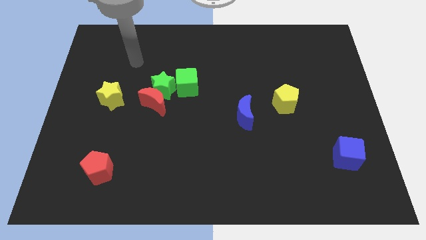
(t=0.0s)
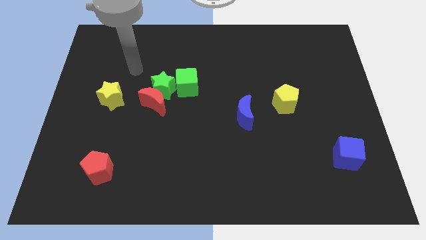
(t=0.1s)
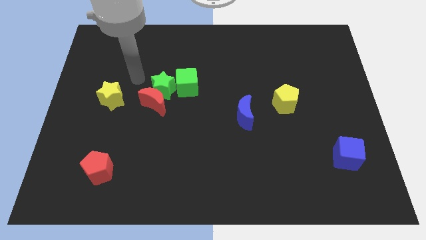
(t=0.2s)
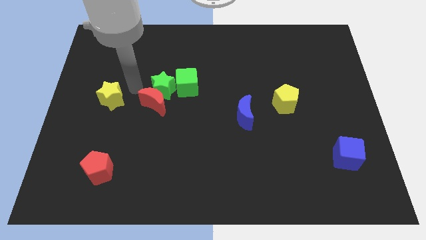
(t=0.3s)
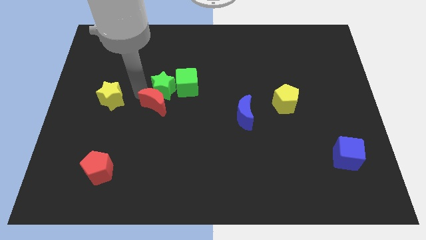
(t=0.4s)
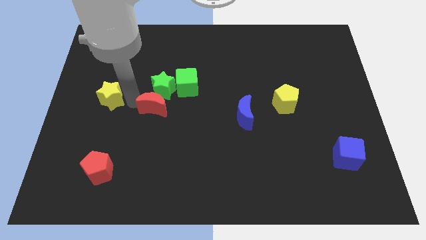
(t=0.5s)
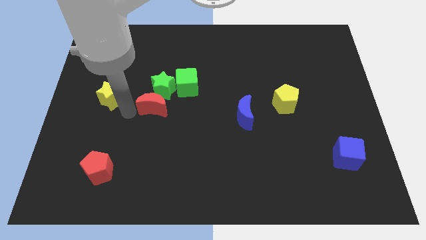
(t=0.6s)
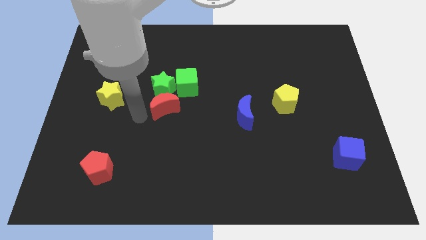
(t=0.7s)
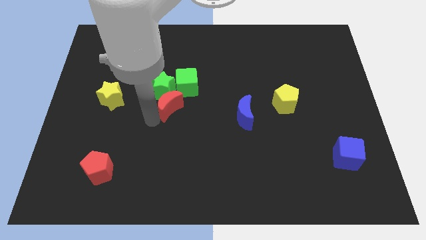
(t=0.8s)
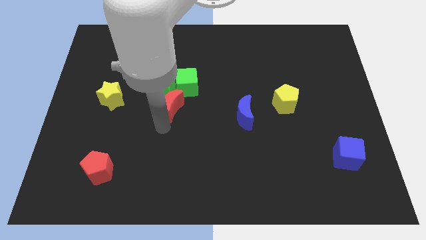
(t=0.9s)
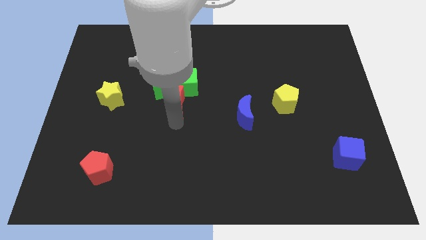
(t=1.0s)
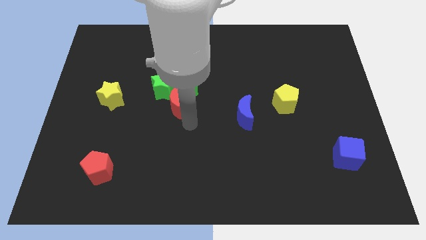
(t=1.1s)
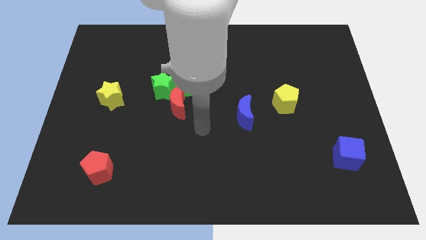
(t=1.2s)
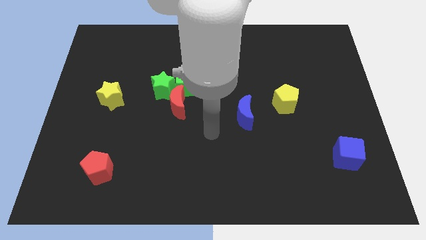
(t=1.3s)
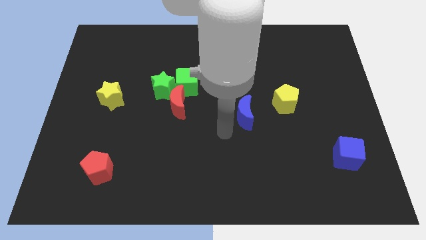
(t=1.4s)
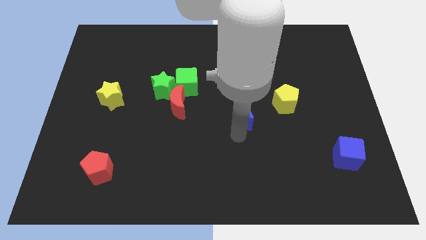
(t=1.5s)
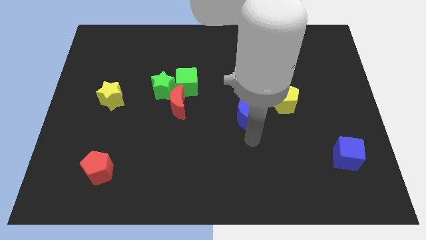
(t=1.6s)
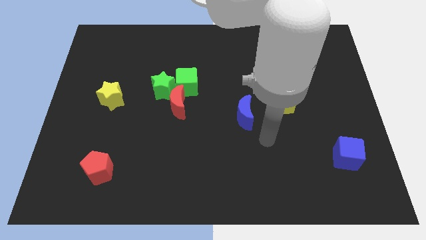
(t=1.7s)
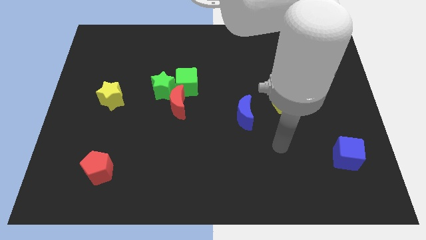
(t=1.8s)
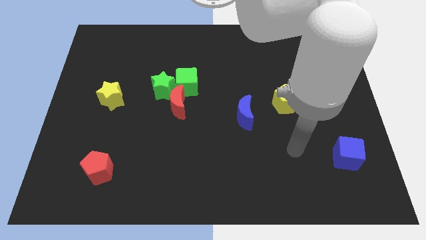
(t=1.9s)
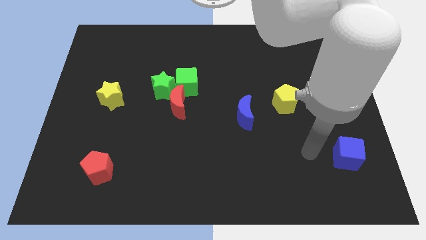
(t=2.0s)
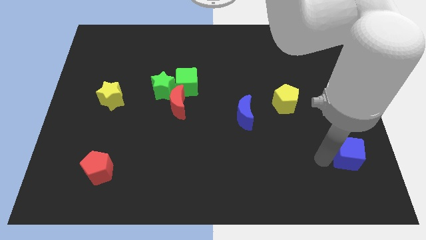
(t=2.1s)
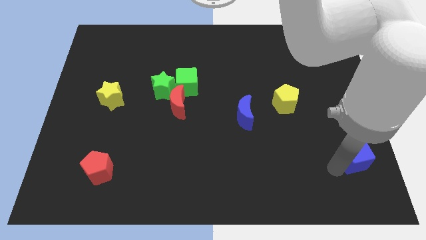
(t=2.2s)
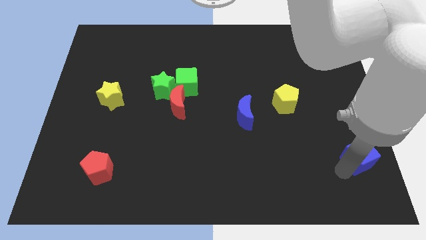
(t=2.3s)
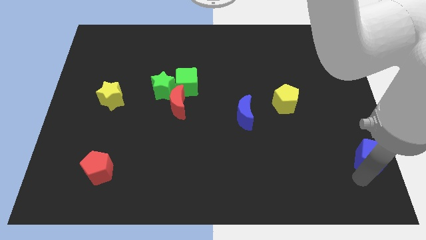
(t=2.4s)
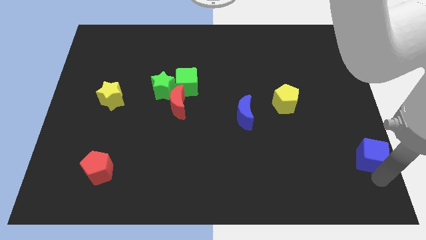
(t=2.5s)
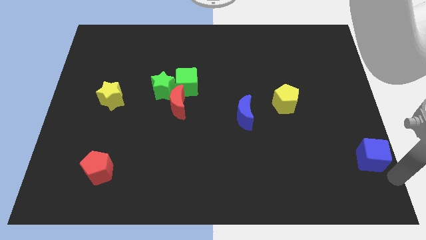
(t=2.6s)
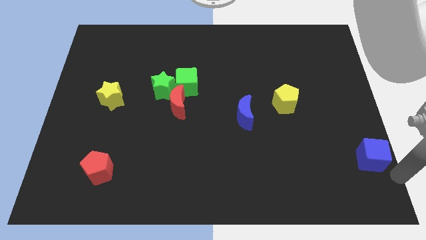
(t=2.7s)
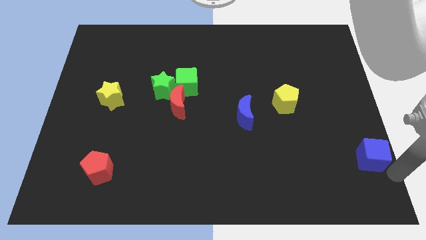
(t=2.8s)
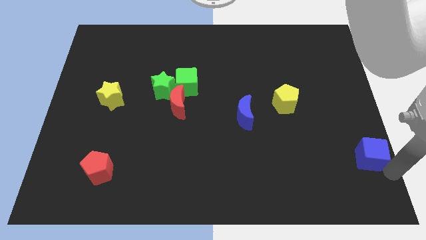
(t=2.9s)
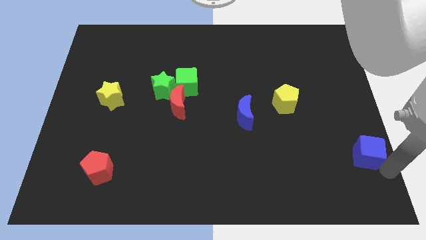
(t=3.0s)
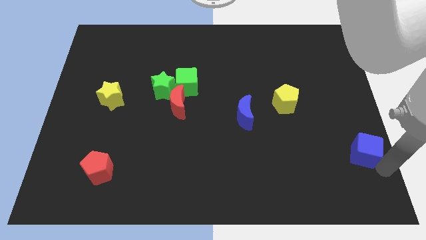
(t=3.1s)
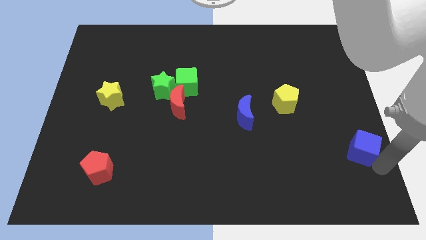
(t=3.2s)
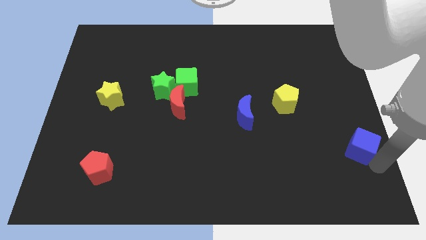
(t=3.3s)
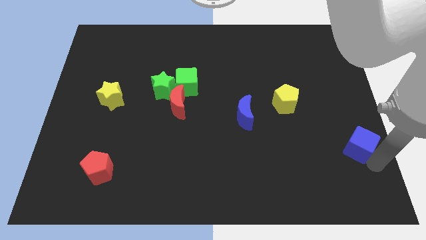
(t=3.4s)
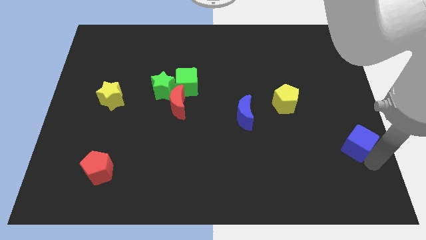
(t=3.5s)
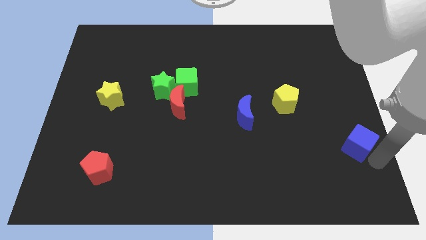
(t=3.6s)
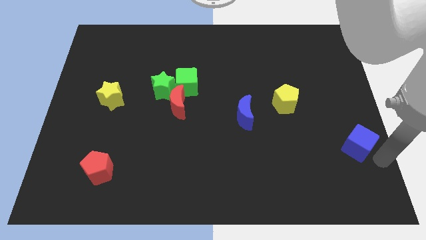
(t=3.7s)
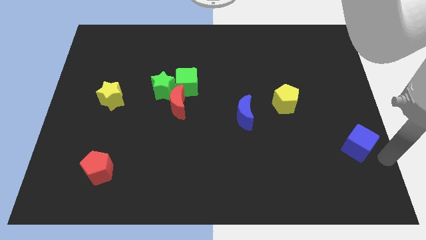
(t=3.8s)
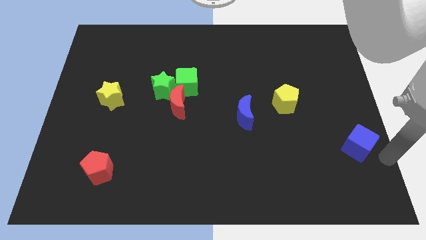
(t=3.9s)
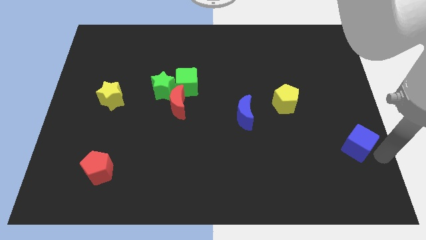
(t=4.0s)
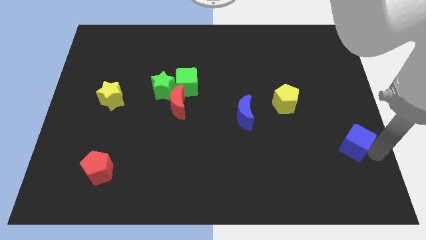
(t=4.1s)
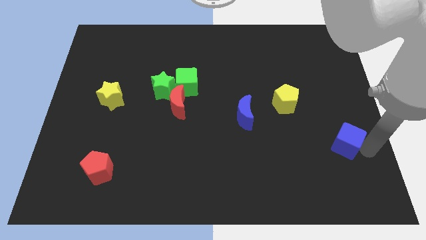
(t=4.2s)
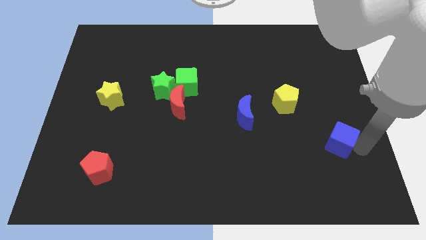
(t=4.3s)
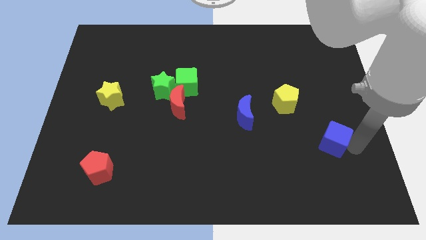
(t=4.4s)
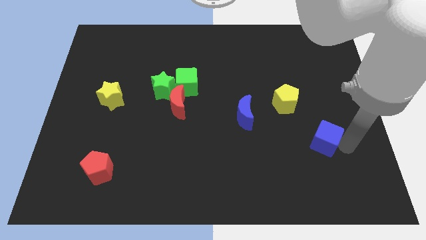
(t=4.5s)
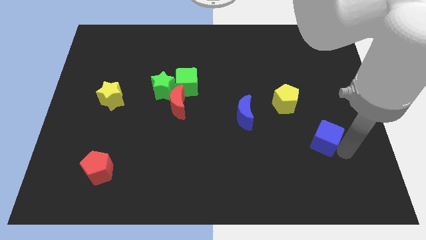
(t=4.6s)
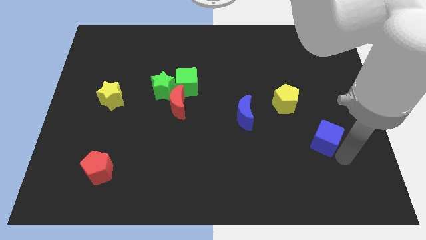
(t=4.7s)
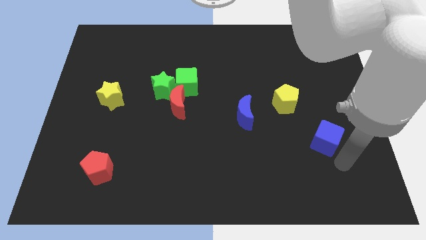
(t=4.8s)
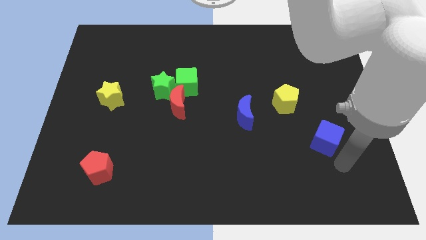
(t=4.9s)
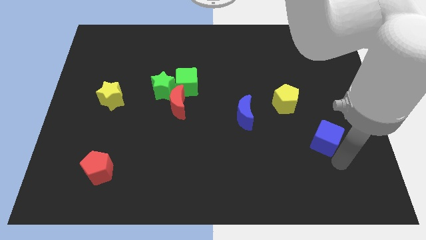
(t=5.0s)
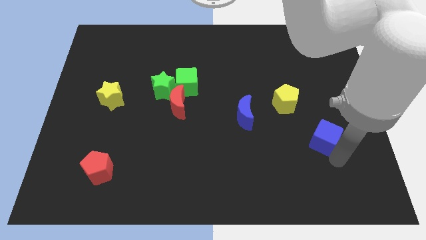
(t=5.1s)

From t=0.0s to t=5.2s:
put the blue cube to the bottom right of the yellow pentagon

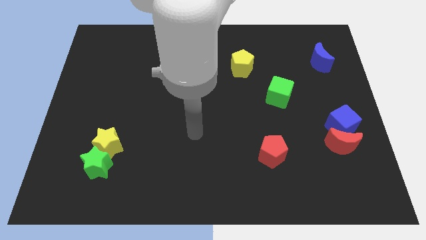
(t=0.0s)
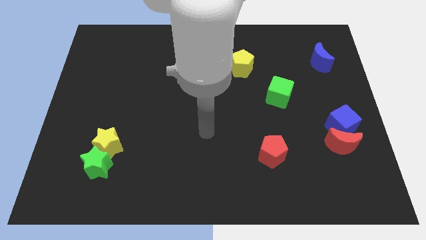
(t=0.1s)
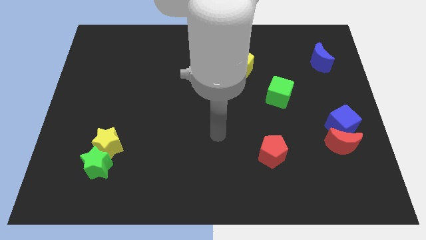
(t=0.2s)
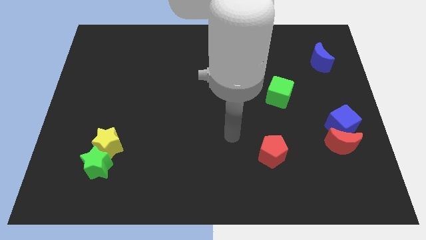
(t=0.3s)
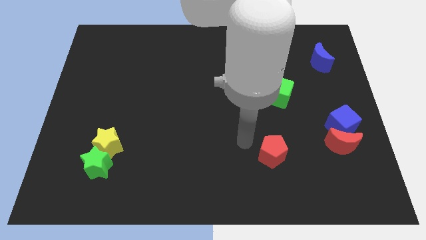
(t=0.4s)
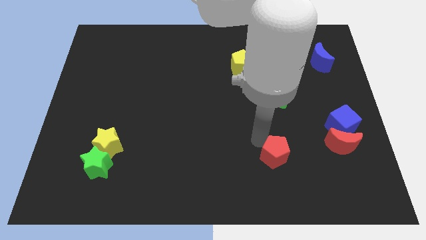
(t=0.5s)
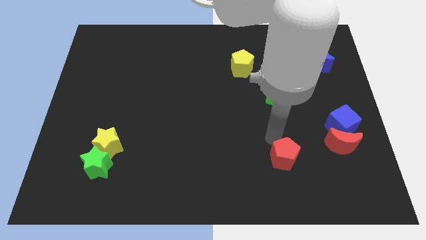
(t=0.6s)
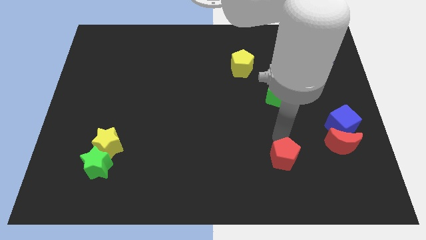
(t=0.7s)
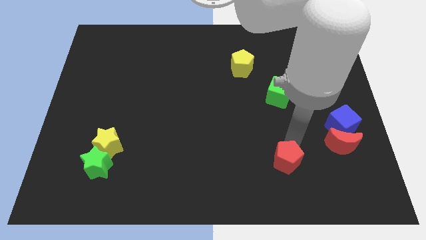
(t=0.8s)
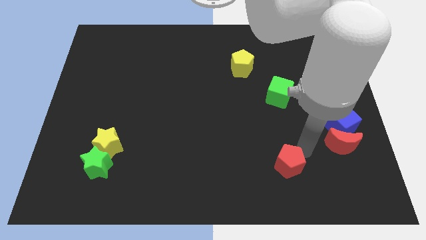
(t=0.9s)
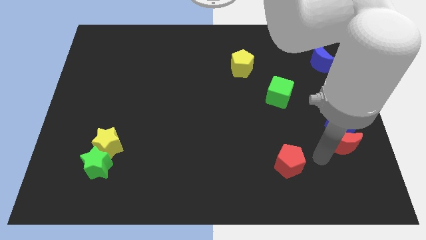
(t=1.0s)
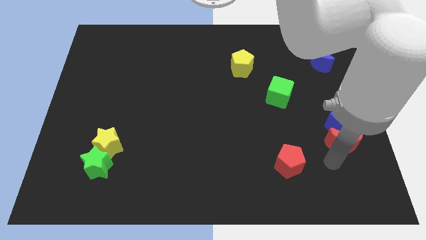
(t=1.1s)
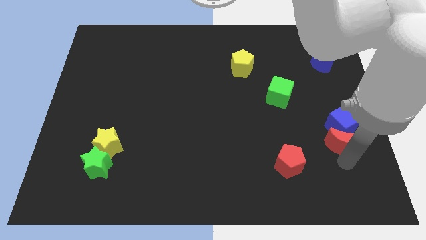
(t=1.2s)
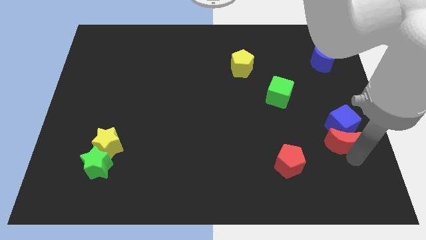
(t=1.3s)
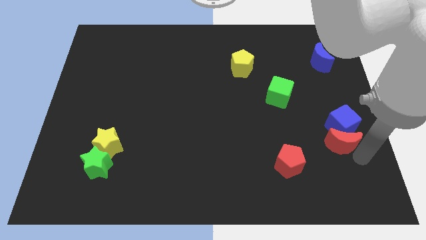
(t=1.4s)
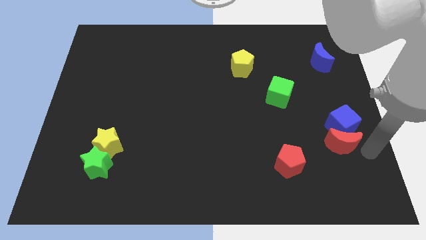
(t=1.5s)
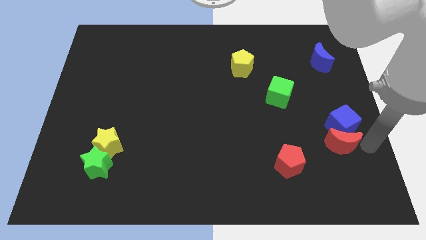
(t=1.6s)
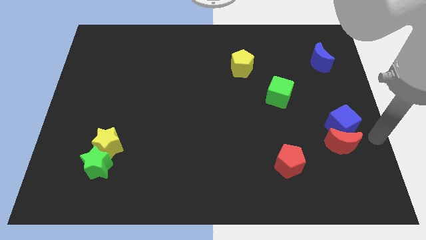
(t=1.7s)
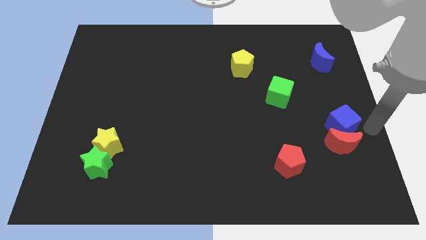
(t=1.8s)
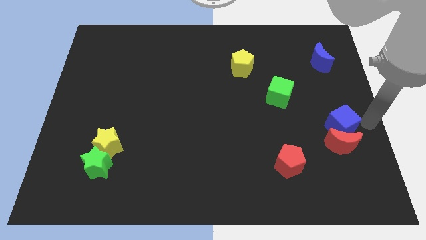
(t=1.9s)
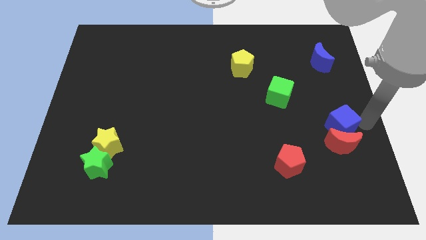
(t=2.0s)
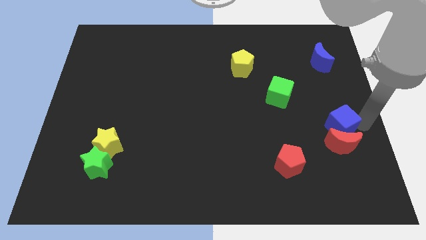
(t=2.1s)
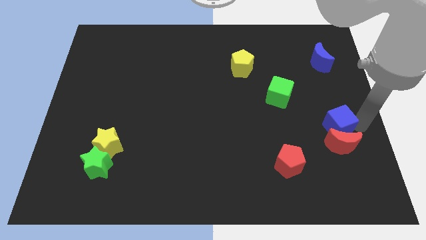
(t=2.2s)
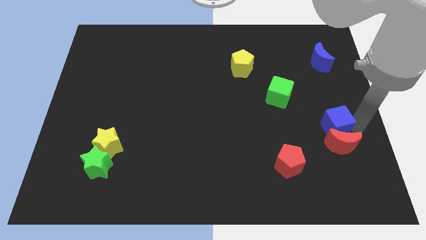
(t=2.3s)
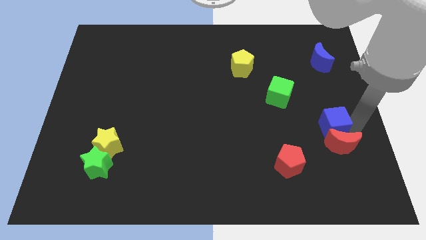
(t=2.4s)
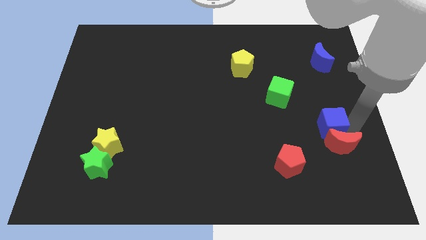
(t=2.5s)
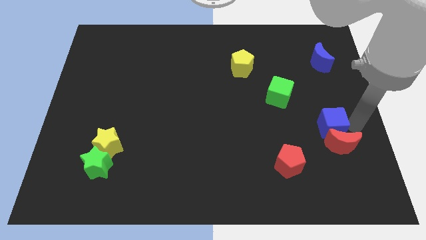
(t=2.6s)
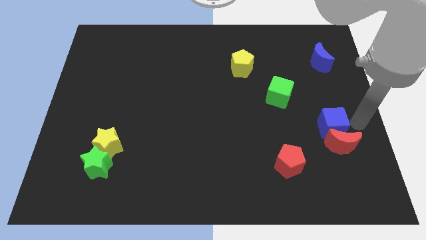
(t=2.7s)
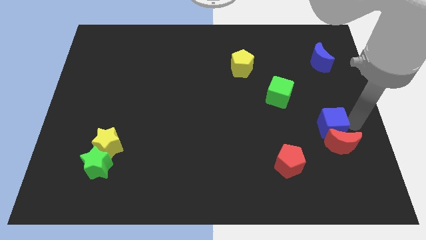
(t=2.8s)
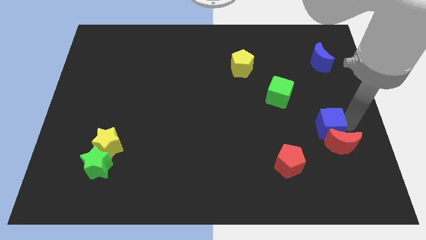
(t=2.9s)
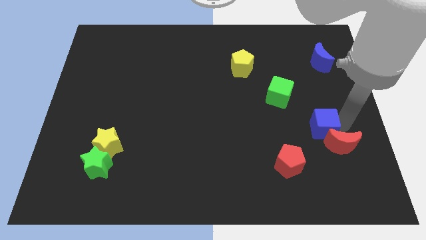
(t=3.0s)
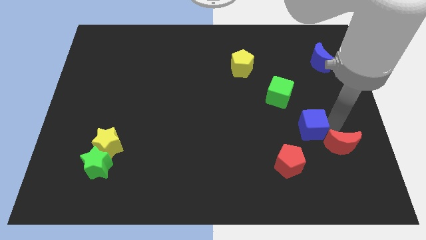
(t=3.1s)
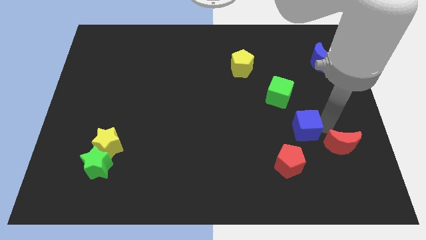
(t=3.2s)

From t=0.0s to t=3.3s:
push the blue cube to the bottom of the green cube
